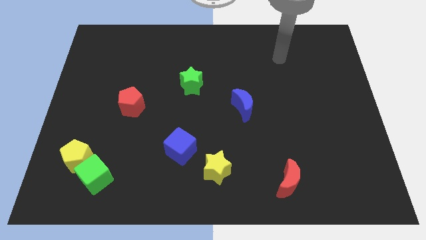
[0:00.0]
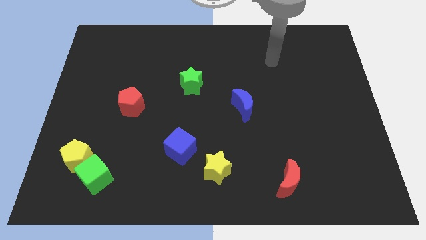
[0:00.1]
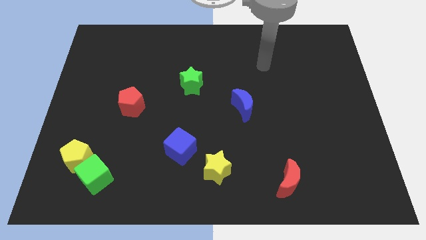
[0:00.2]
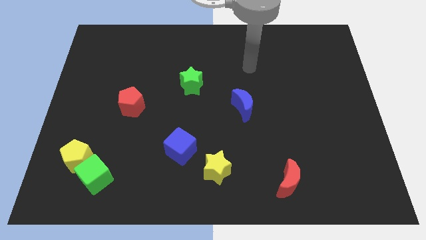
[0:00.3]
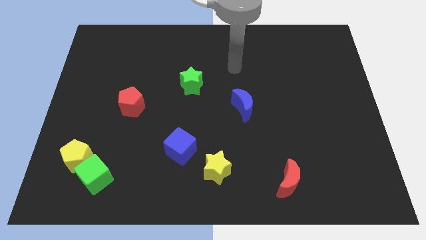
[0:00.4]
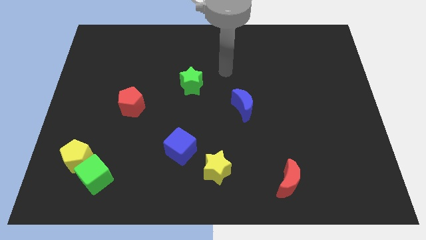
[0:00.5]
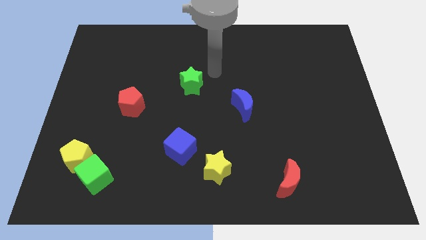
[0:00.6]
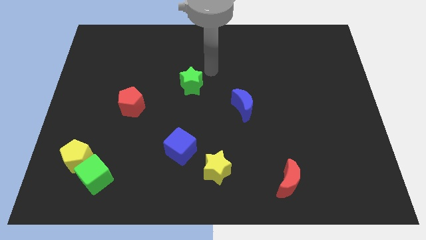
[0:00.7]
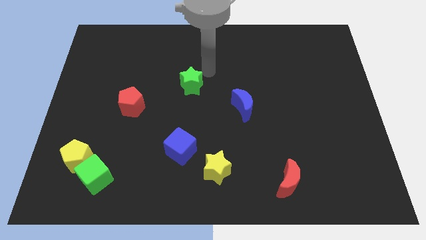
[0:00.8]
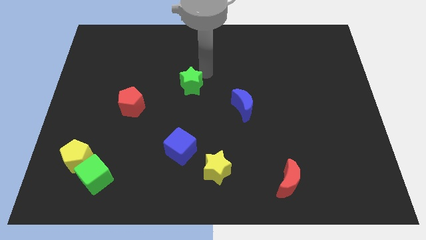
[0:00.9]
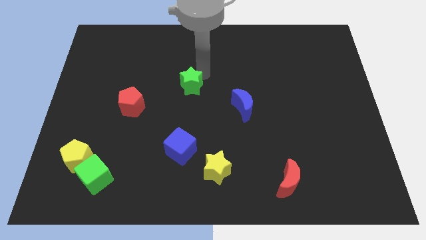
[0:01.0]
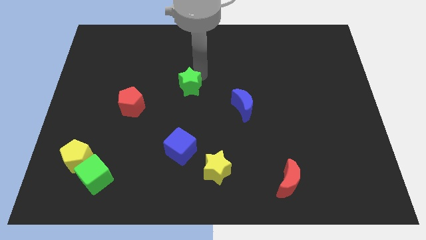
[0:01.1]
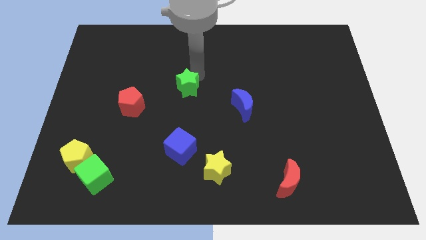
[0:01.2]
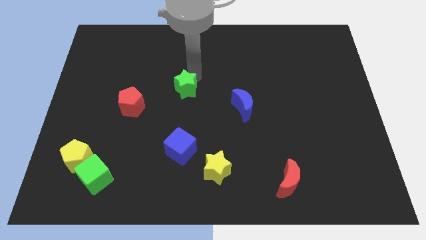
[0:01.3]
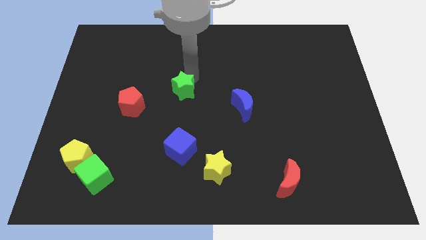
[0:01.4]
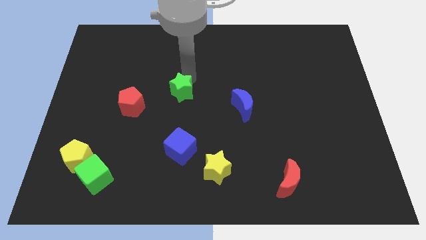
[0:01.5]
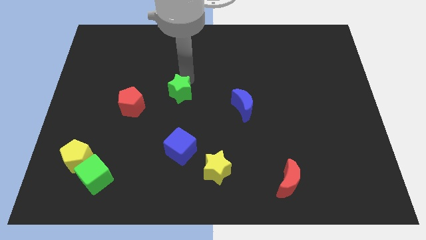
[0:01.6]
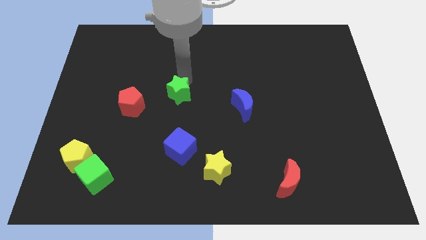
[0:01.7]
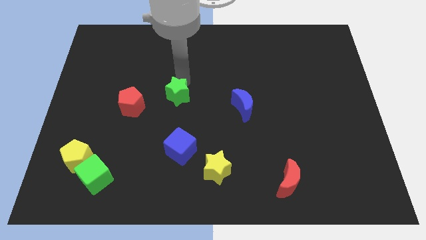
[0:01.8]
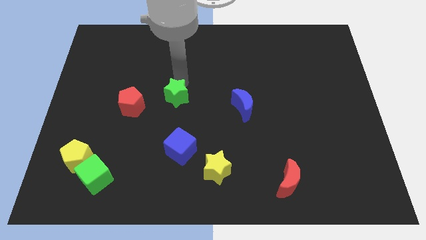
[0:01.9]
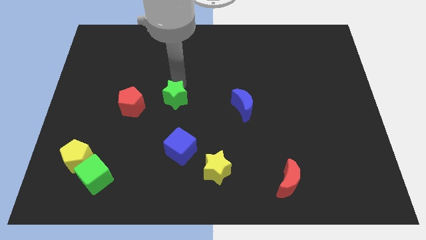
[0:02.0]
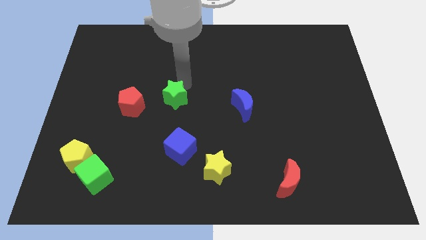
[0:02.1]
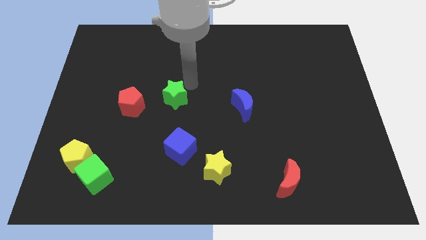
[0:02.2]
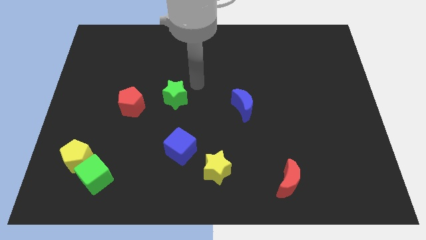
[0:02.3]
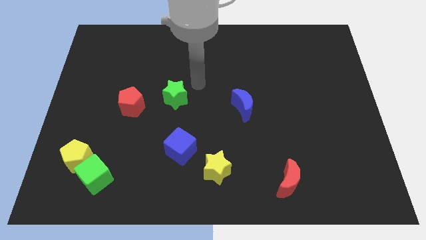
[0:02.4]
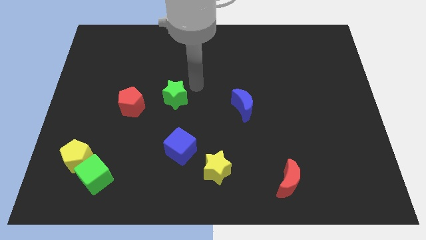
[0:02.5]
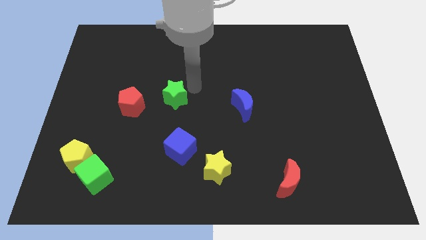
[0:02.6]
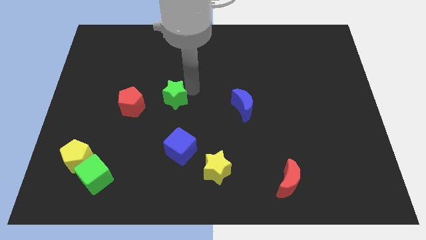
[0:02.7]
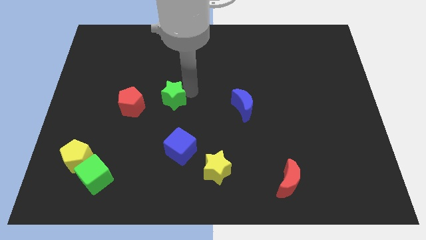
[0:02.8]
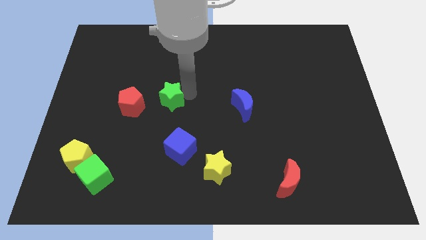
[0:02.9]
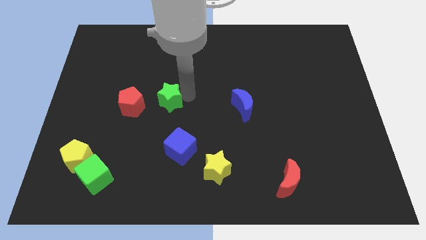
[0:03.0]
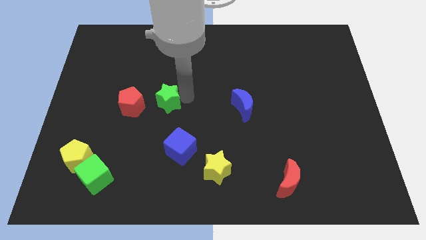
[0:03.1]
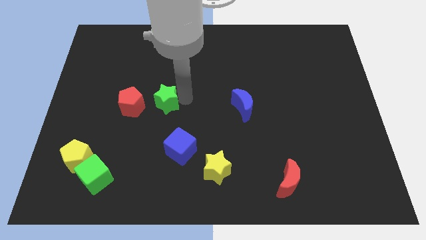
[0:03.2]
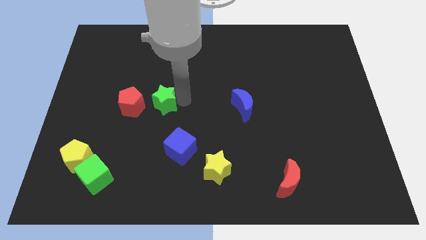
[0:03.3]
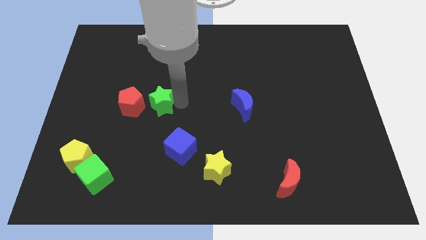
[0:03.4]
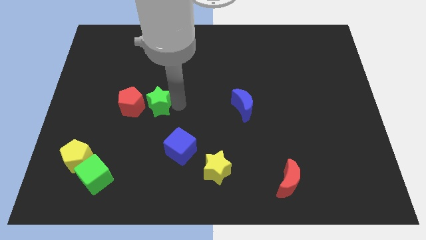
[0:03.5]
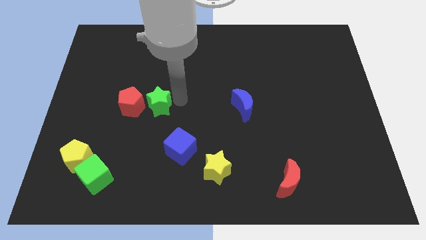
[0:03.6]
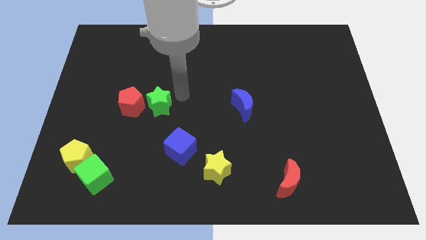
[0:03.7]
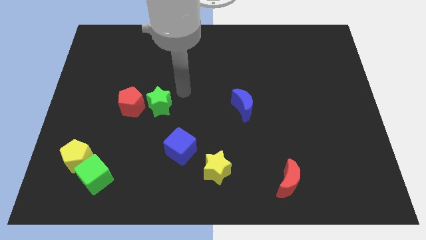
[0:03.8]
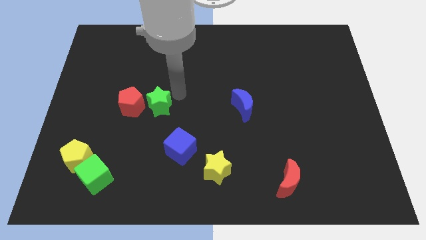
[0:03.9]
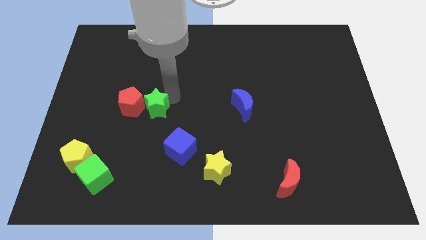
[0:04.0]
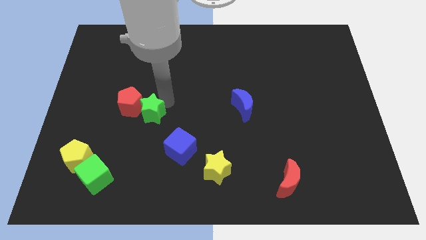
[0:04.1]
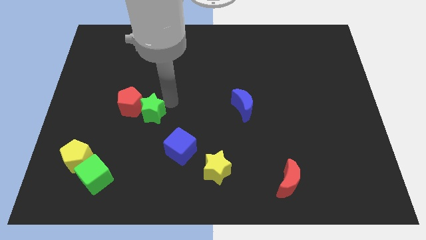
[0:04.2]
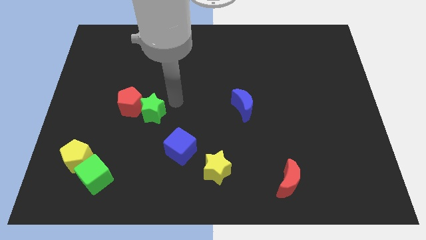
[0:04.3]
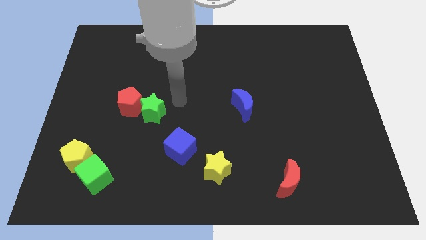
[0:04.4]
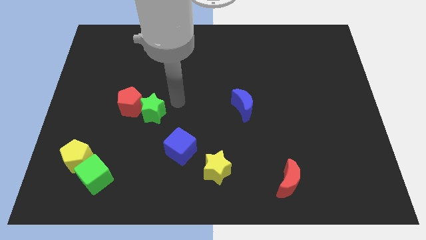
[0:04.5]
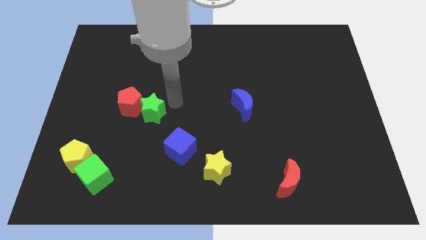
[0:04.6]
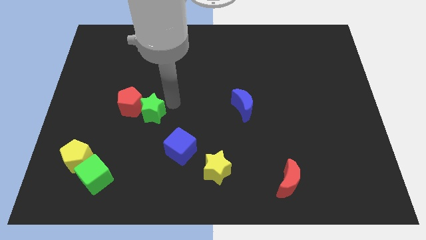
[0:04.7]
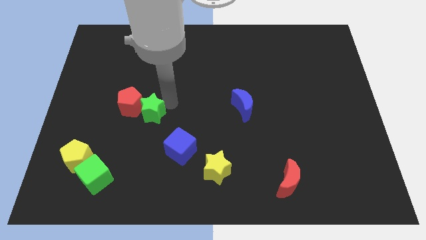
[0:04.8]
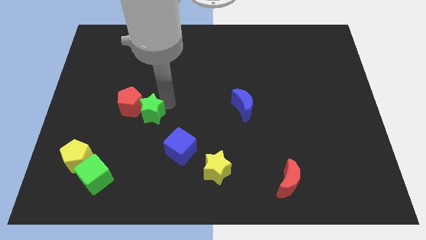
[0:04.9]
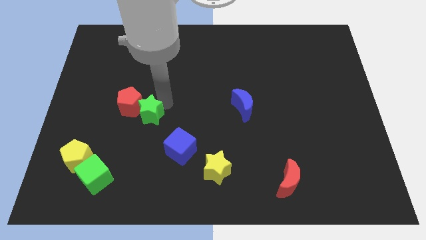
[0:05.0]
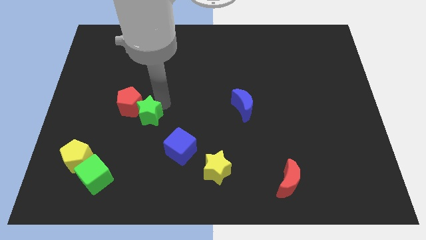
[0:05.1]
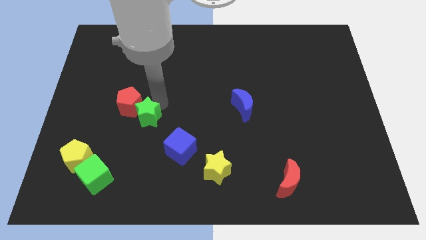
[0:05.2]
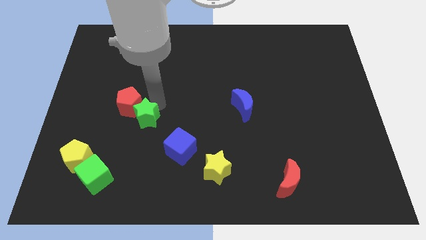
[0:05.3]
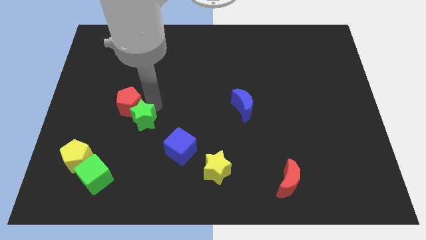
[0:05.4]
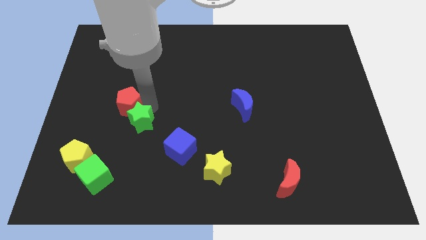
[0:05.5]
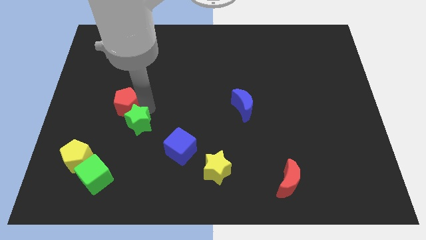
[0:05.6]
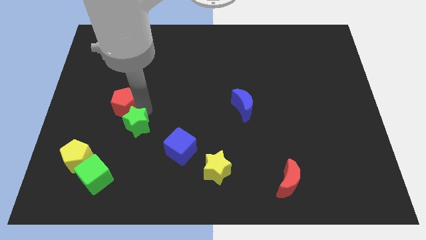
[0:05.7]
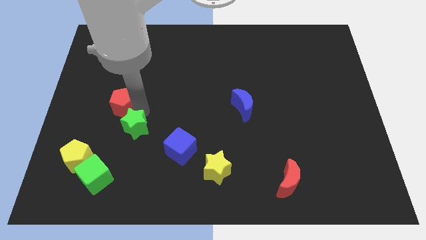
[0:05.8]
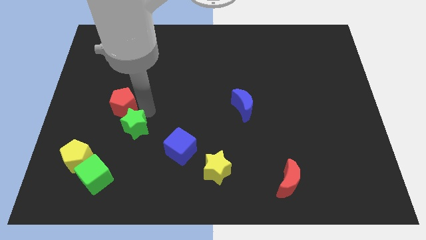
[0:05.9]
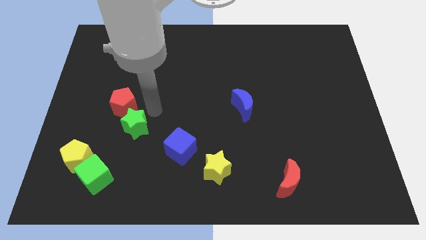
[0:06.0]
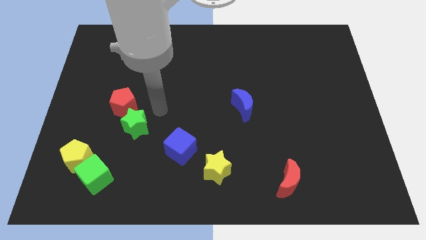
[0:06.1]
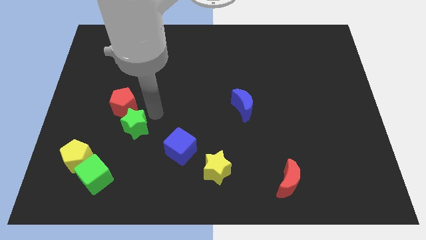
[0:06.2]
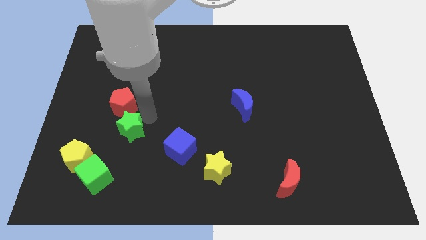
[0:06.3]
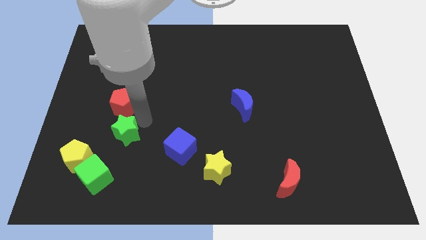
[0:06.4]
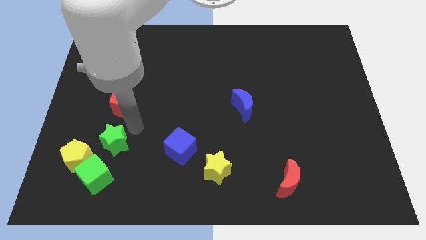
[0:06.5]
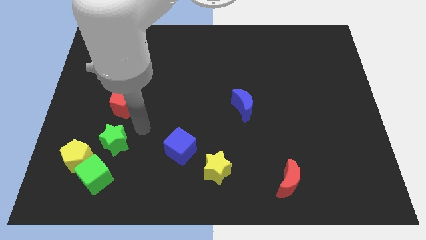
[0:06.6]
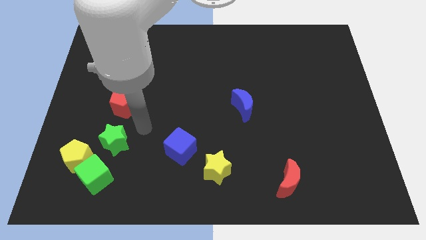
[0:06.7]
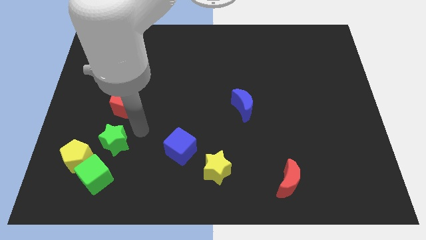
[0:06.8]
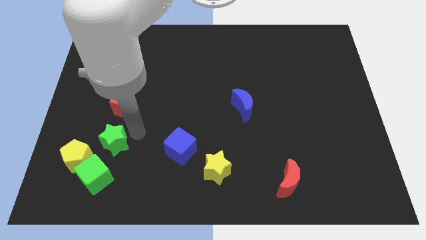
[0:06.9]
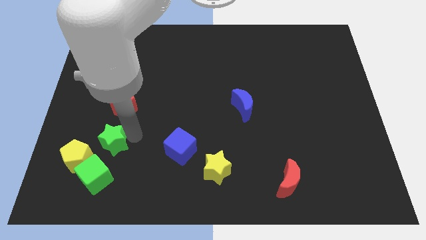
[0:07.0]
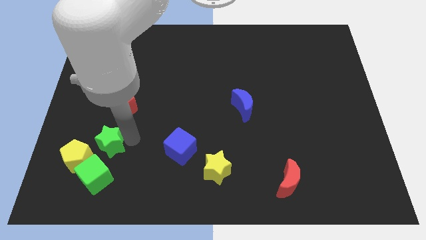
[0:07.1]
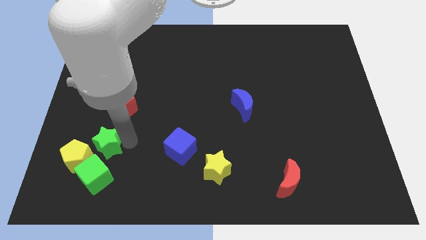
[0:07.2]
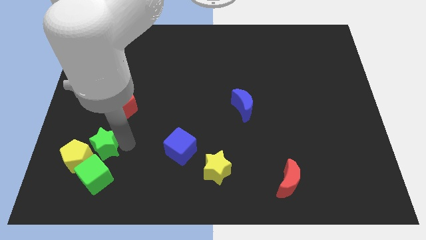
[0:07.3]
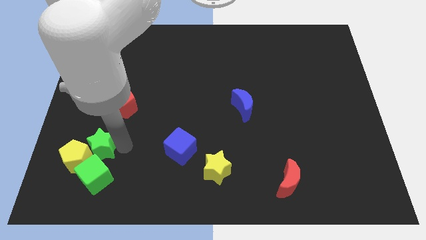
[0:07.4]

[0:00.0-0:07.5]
push the green star to the yellow pentagon

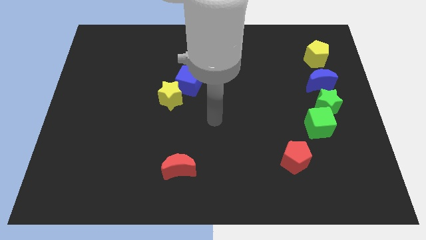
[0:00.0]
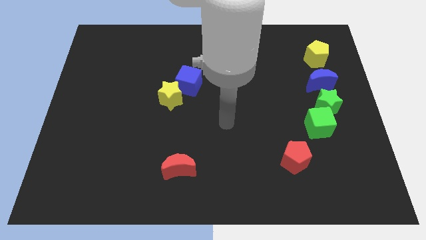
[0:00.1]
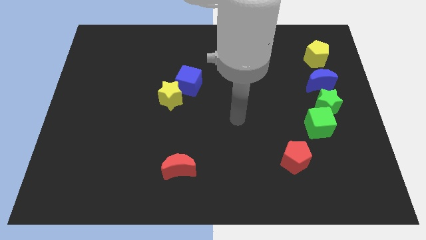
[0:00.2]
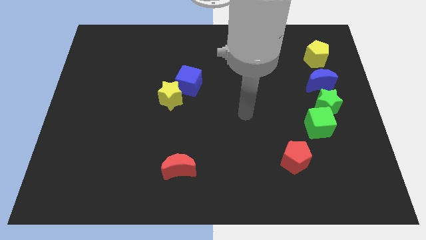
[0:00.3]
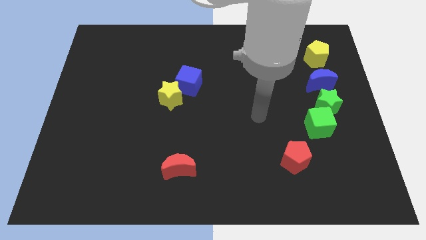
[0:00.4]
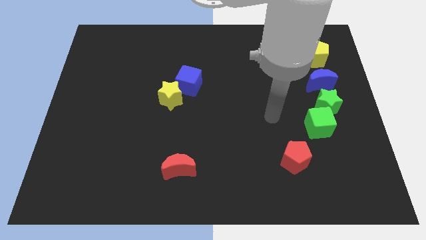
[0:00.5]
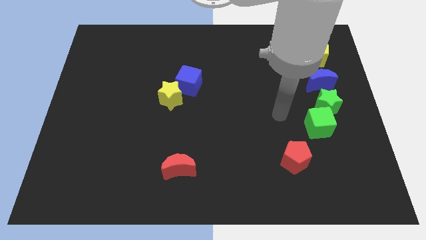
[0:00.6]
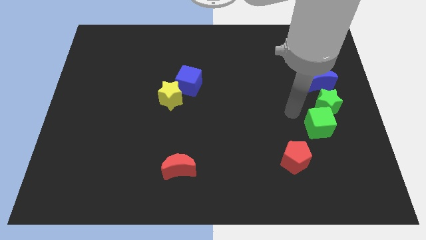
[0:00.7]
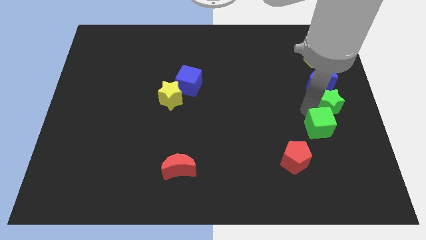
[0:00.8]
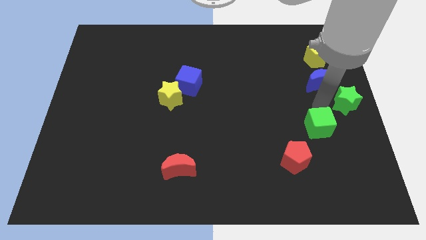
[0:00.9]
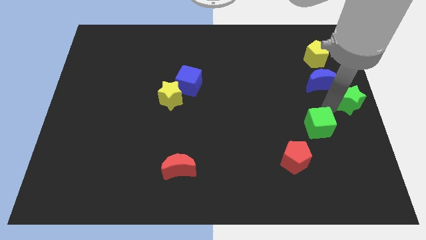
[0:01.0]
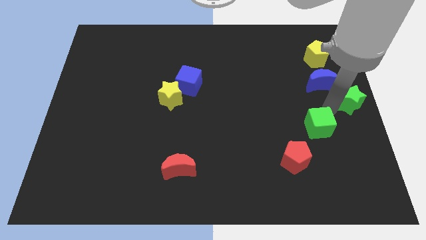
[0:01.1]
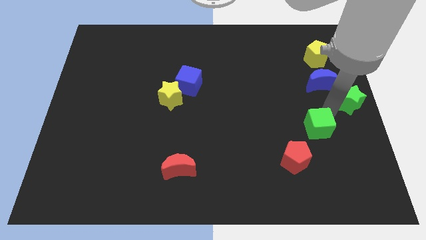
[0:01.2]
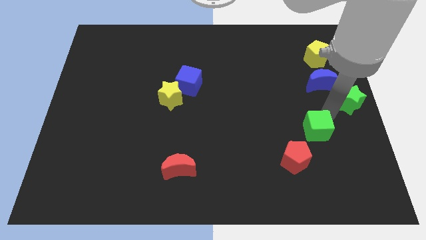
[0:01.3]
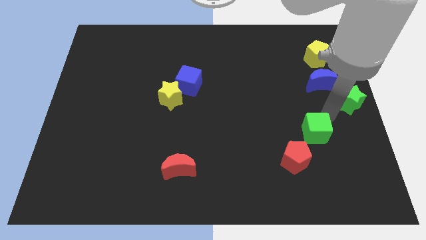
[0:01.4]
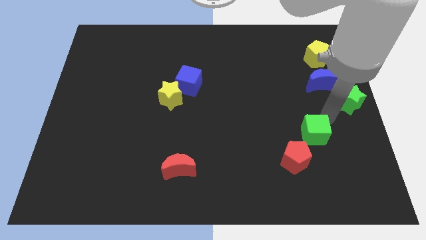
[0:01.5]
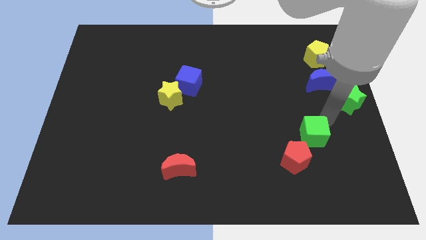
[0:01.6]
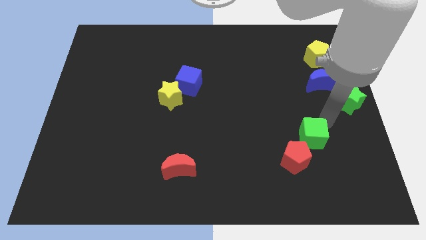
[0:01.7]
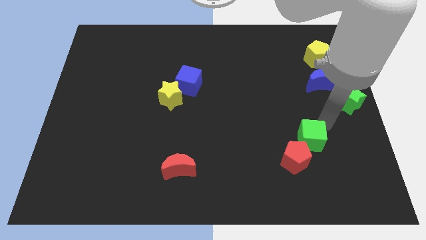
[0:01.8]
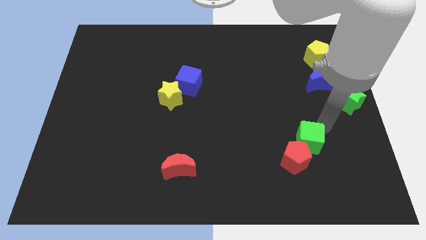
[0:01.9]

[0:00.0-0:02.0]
move the green cube close to the red pentagon
